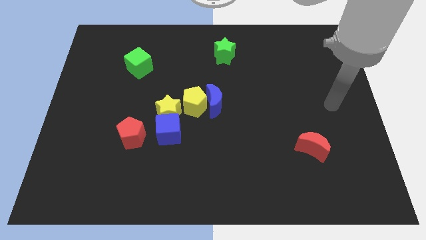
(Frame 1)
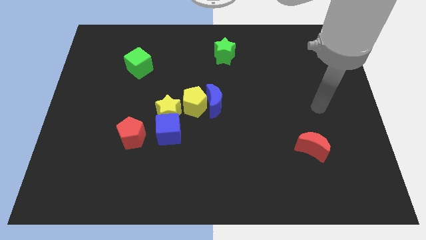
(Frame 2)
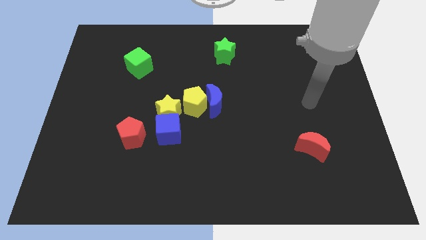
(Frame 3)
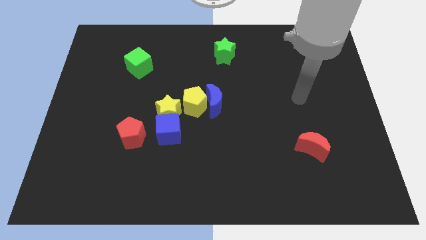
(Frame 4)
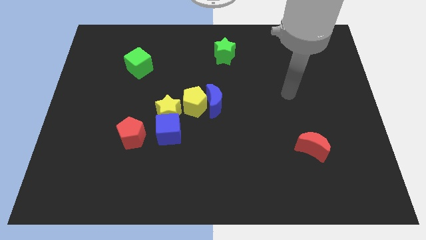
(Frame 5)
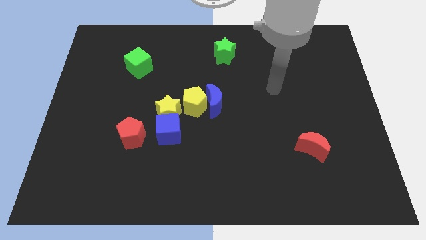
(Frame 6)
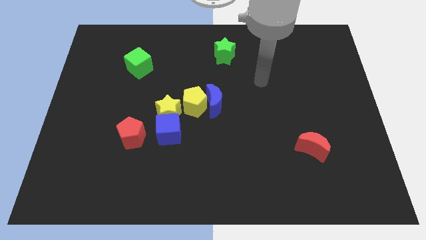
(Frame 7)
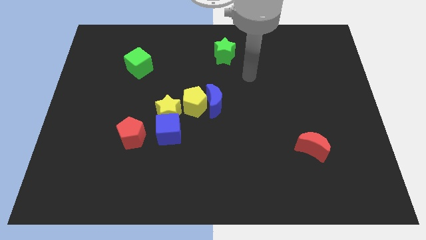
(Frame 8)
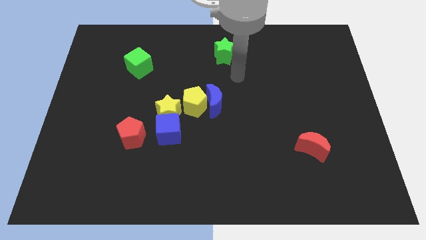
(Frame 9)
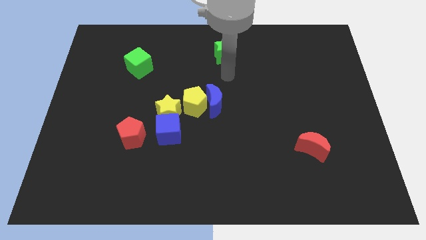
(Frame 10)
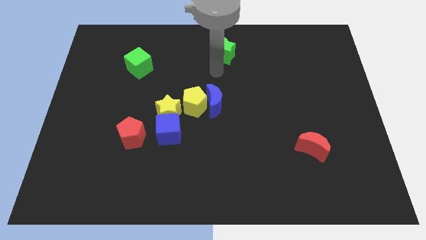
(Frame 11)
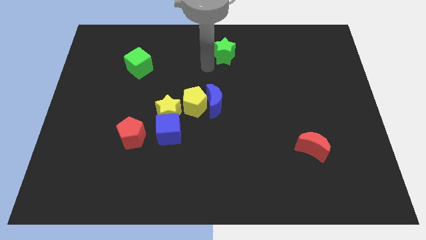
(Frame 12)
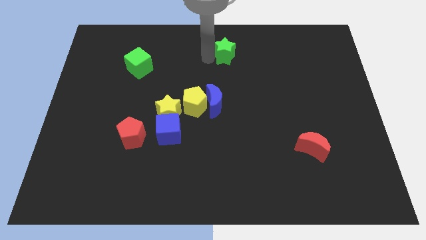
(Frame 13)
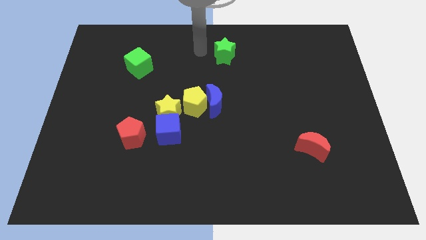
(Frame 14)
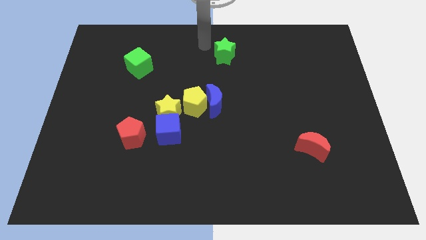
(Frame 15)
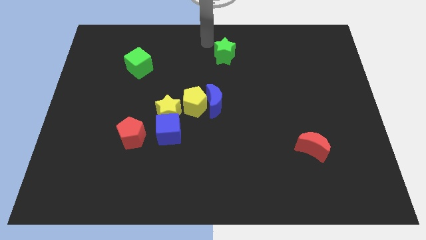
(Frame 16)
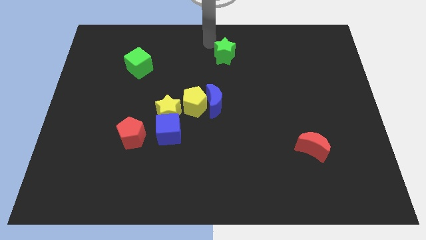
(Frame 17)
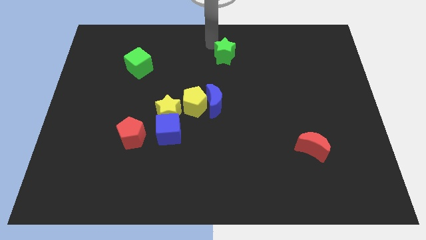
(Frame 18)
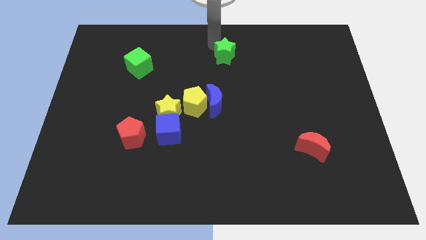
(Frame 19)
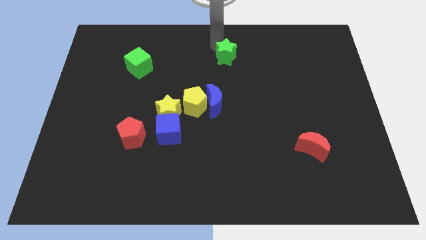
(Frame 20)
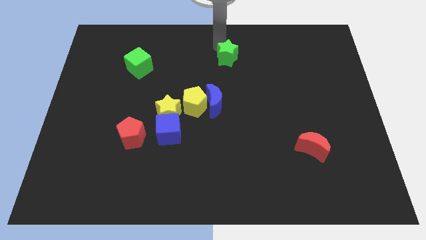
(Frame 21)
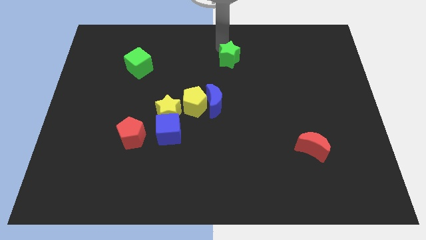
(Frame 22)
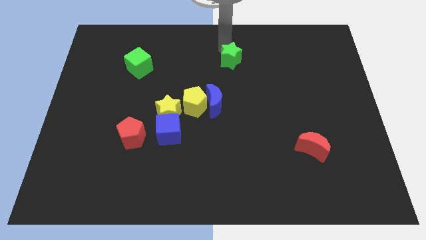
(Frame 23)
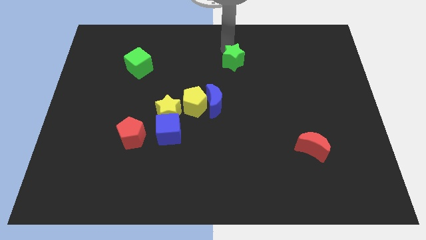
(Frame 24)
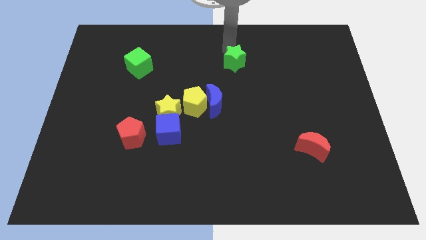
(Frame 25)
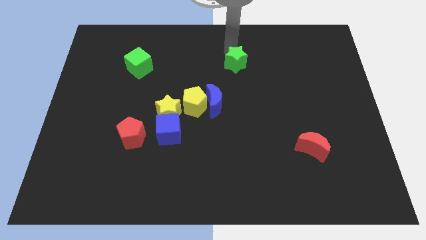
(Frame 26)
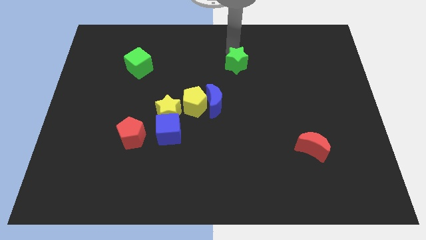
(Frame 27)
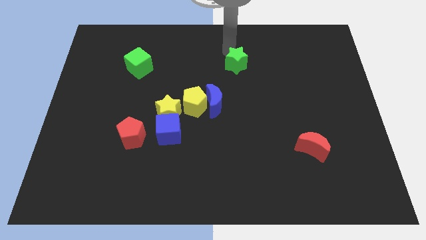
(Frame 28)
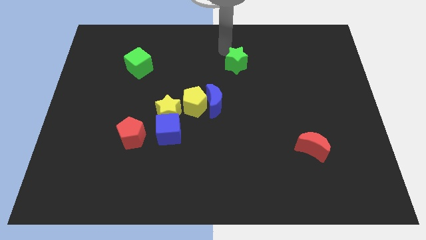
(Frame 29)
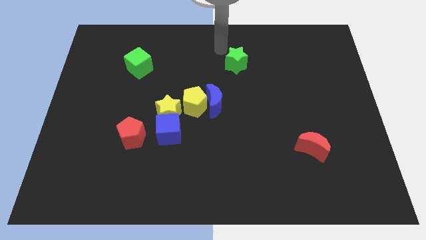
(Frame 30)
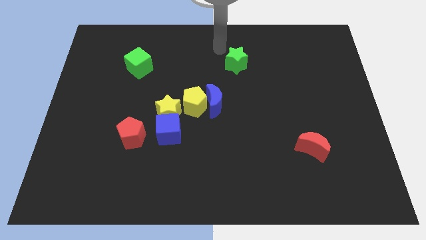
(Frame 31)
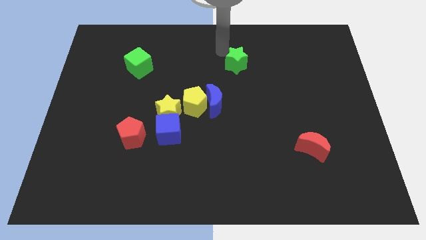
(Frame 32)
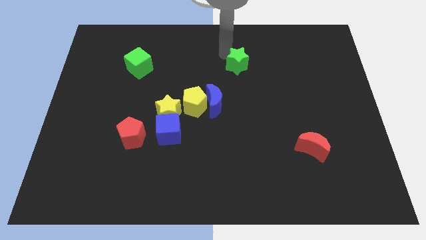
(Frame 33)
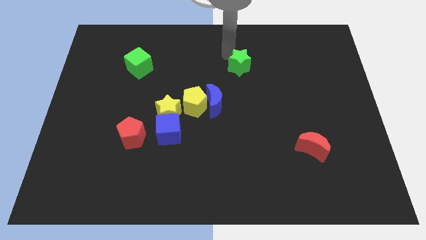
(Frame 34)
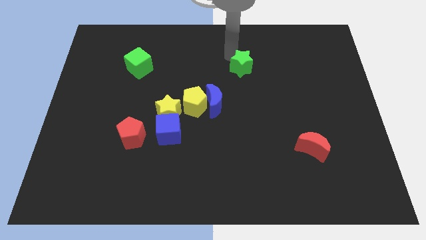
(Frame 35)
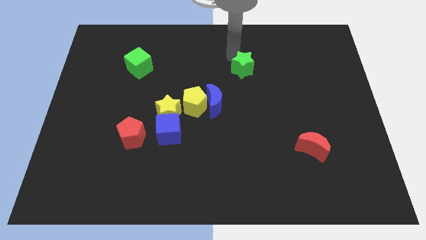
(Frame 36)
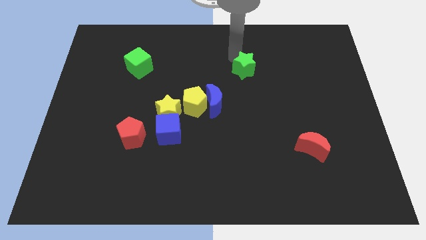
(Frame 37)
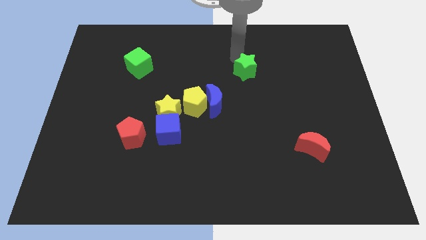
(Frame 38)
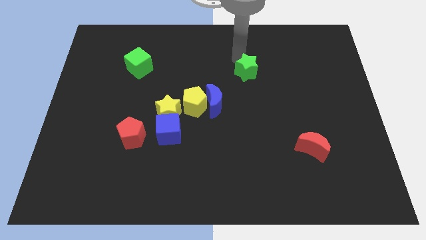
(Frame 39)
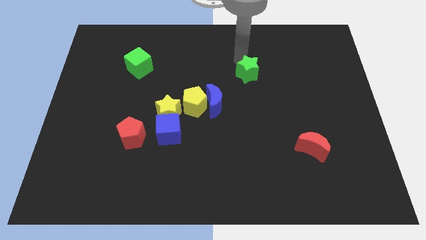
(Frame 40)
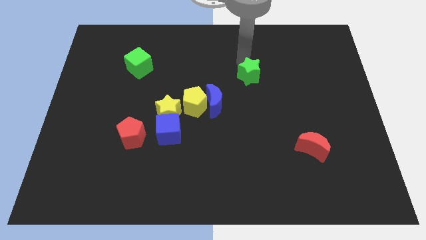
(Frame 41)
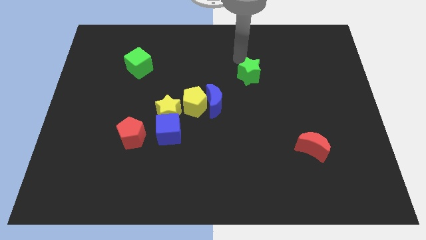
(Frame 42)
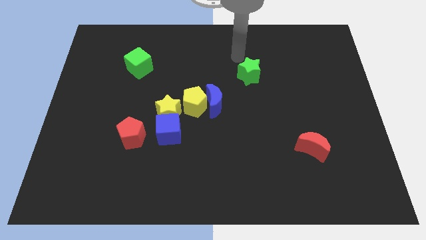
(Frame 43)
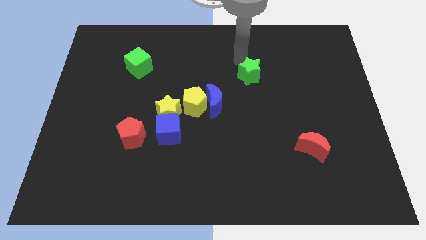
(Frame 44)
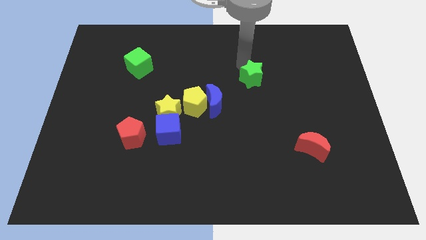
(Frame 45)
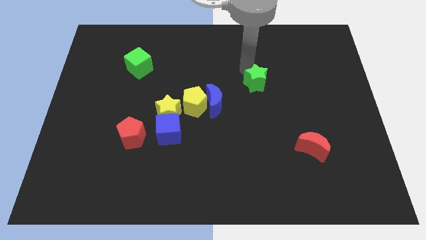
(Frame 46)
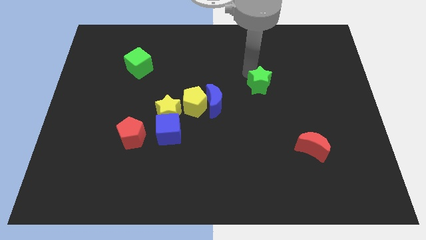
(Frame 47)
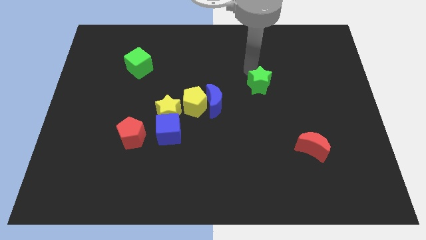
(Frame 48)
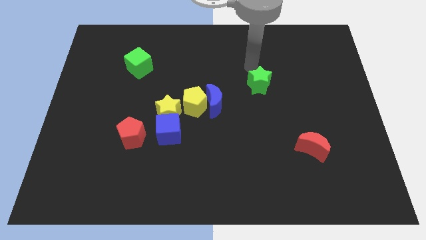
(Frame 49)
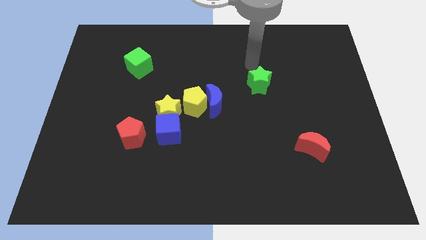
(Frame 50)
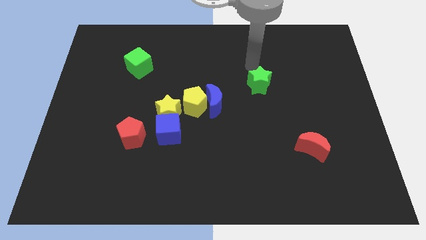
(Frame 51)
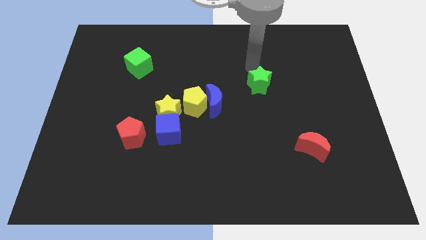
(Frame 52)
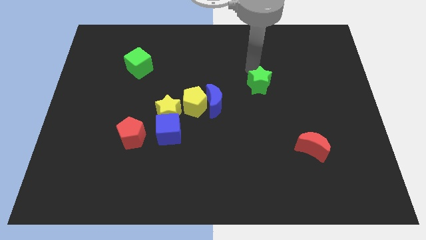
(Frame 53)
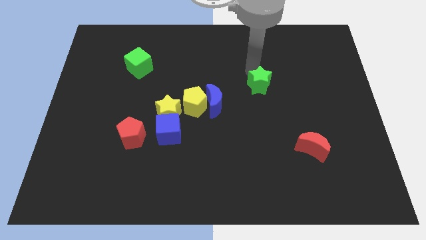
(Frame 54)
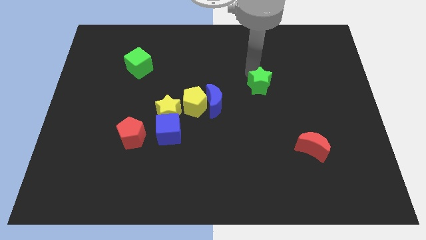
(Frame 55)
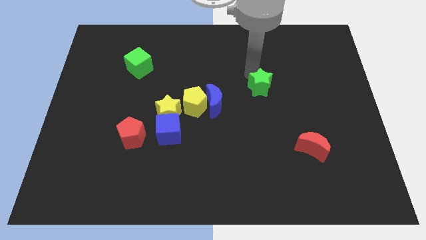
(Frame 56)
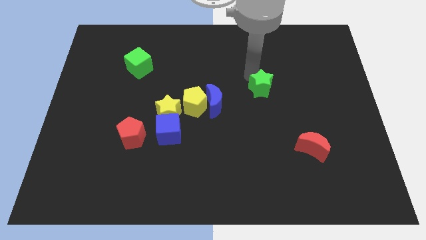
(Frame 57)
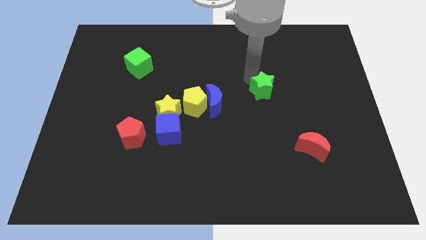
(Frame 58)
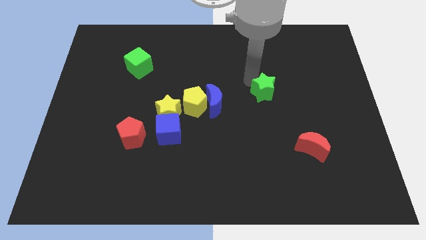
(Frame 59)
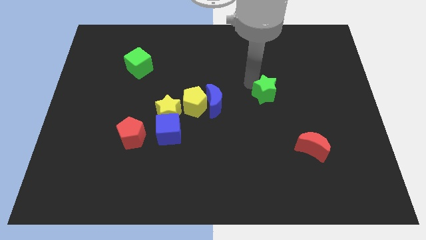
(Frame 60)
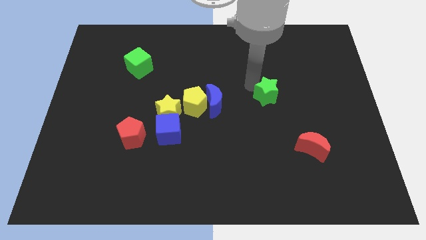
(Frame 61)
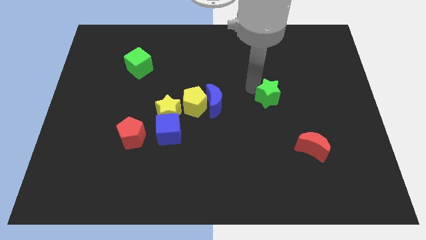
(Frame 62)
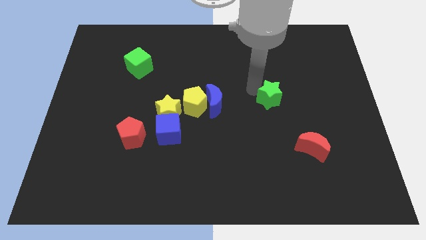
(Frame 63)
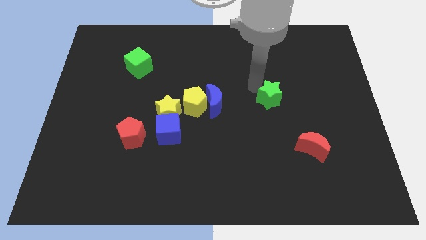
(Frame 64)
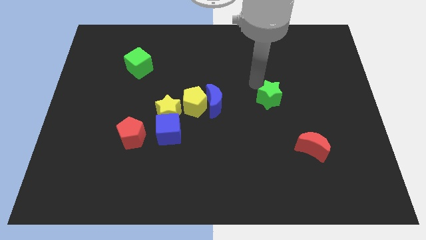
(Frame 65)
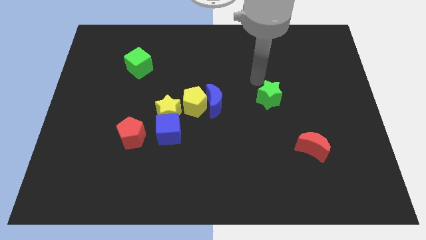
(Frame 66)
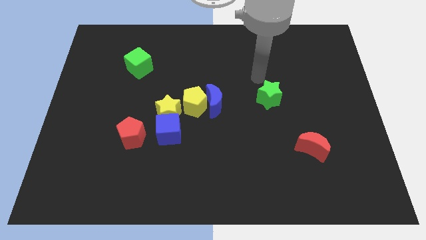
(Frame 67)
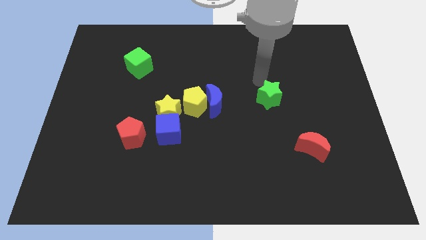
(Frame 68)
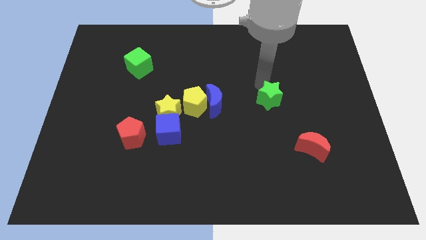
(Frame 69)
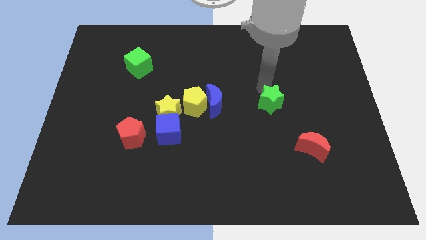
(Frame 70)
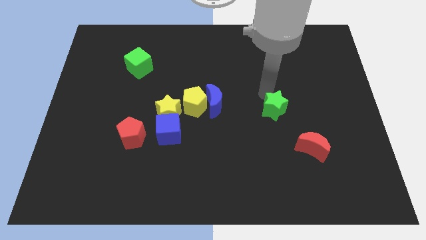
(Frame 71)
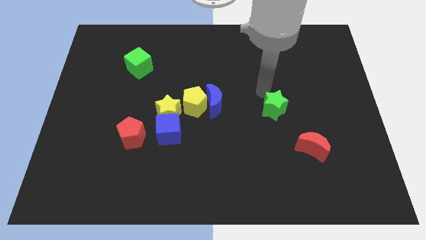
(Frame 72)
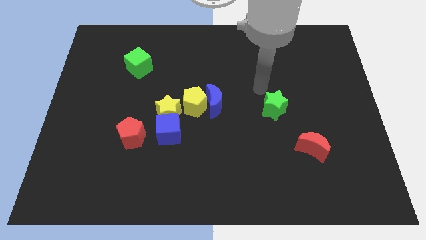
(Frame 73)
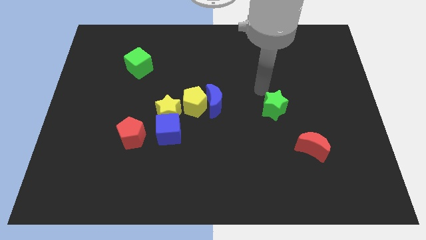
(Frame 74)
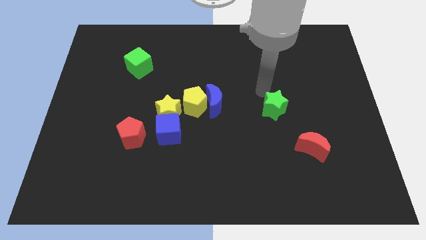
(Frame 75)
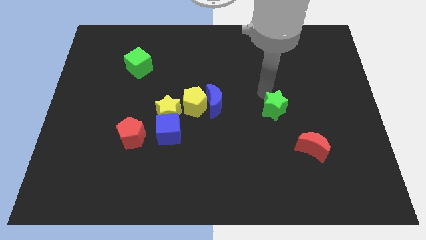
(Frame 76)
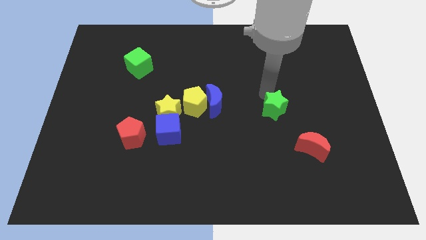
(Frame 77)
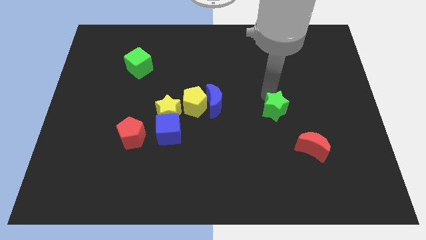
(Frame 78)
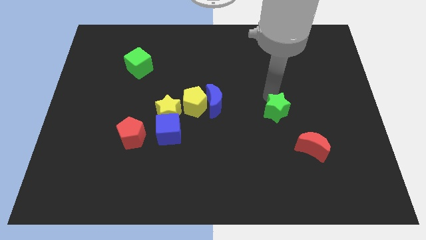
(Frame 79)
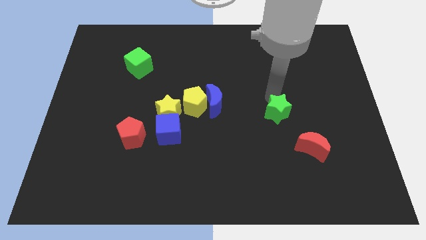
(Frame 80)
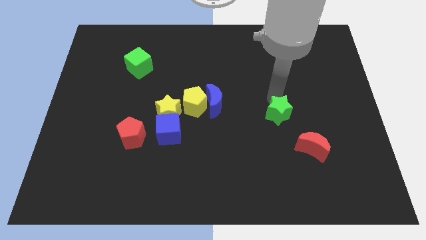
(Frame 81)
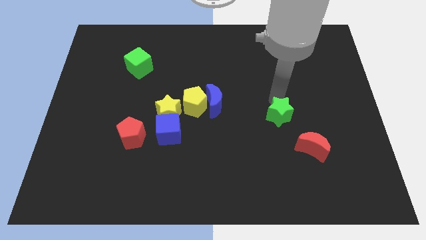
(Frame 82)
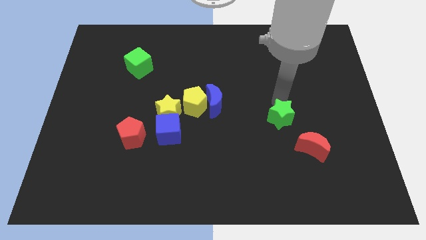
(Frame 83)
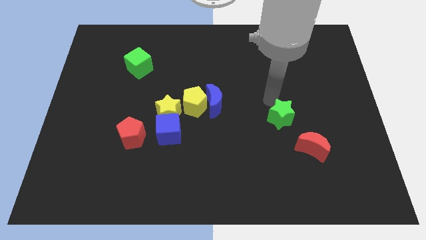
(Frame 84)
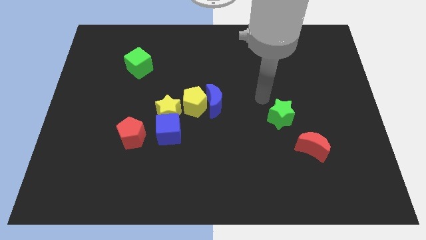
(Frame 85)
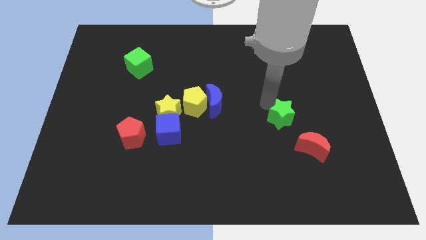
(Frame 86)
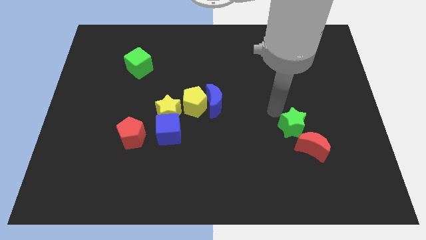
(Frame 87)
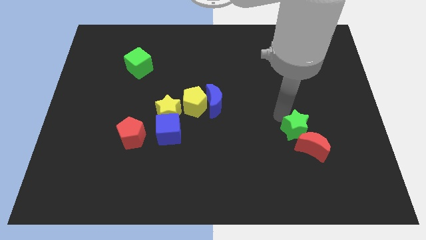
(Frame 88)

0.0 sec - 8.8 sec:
slide the green star to the red moon
